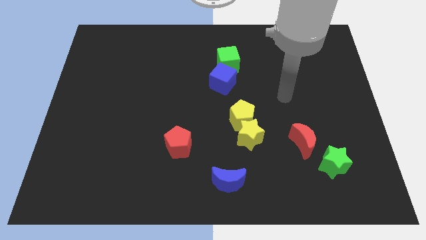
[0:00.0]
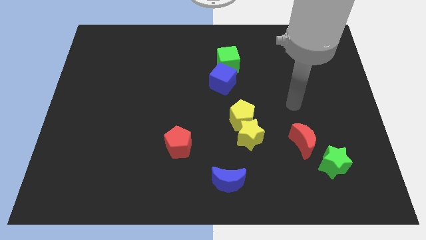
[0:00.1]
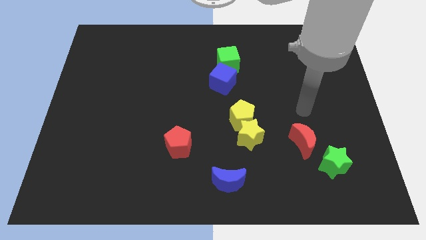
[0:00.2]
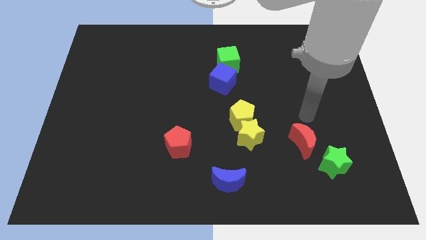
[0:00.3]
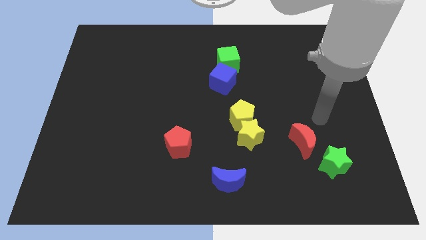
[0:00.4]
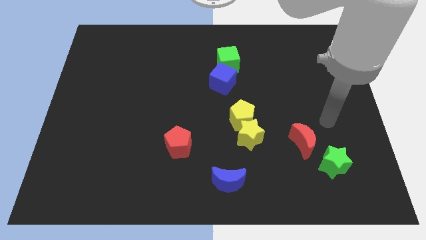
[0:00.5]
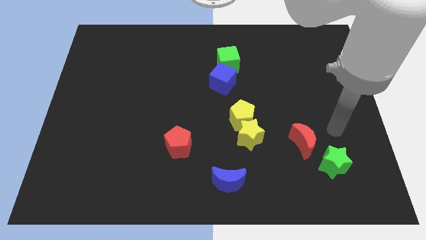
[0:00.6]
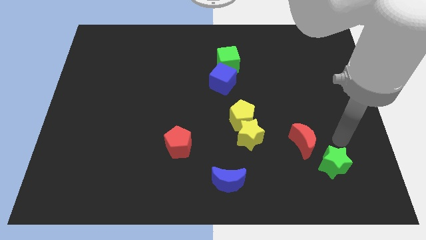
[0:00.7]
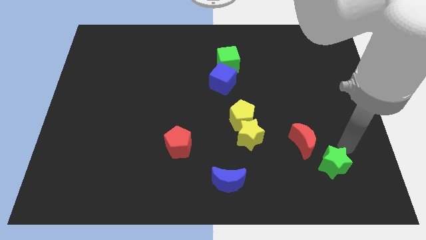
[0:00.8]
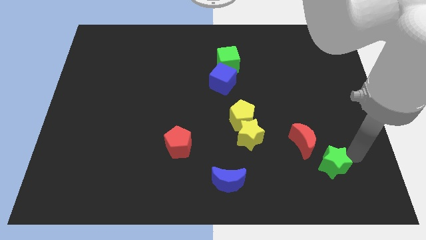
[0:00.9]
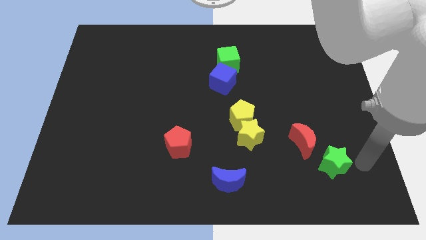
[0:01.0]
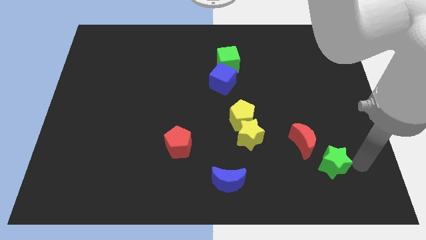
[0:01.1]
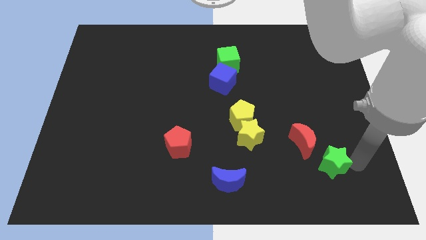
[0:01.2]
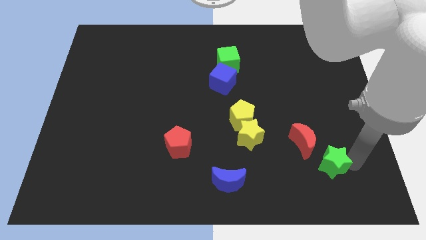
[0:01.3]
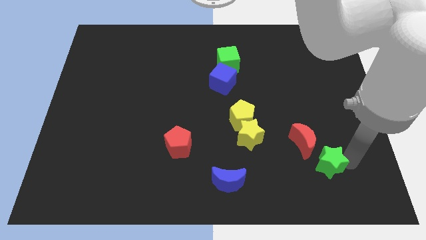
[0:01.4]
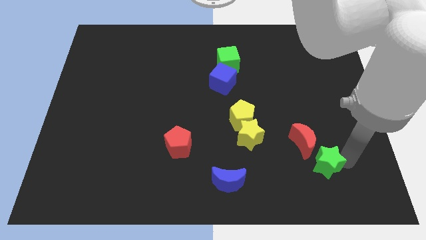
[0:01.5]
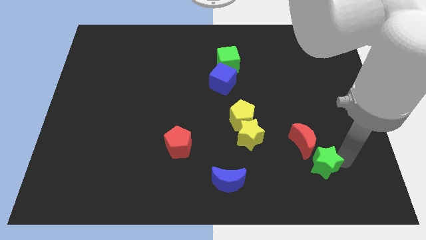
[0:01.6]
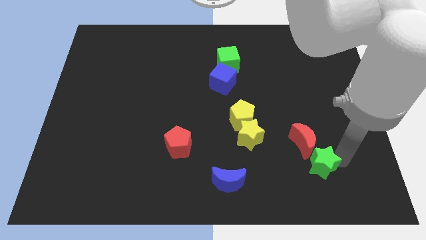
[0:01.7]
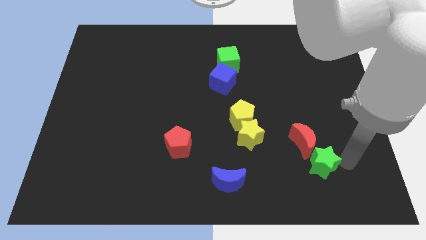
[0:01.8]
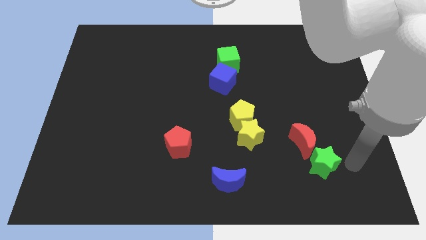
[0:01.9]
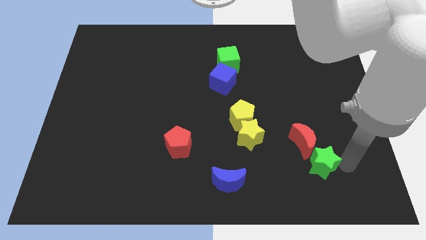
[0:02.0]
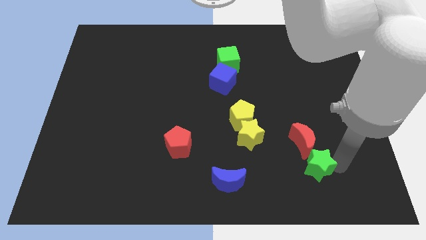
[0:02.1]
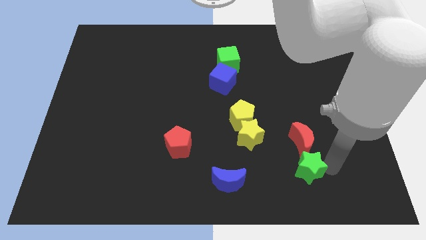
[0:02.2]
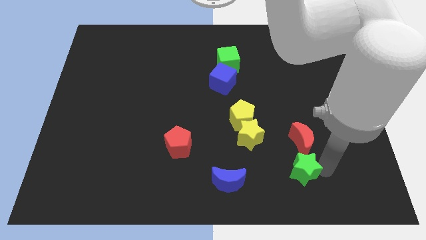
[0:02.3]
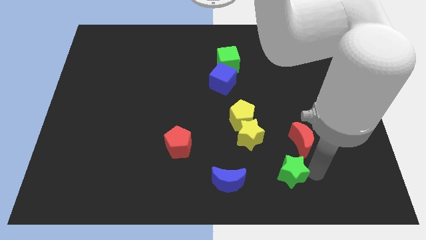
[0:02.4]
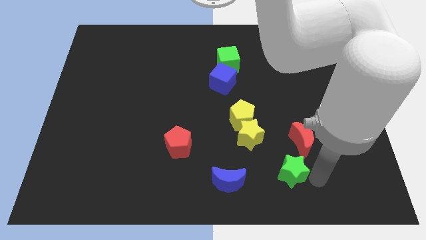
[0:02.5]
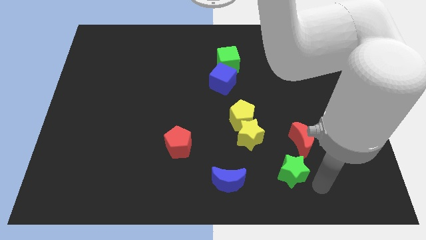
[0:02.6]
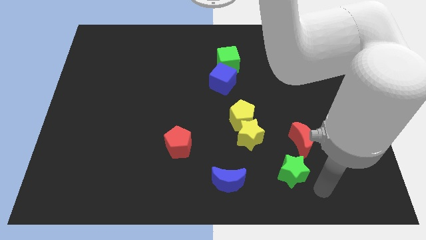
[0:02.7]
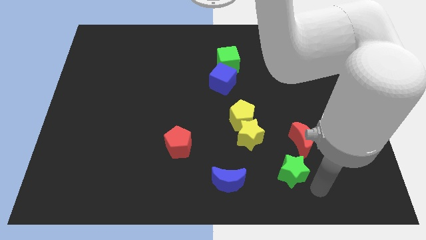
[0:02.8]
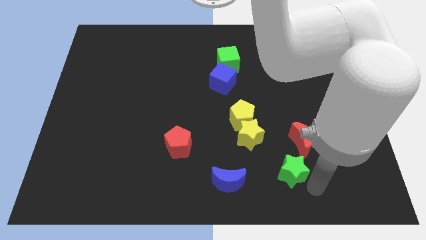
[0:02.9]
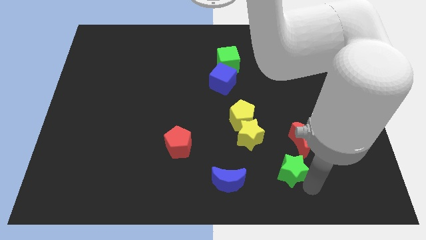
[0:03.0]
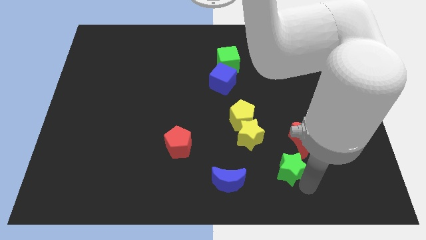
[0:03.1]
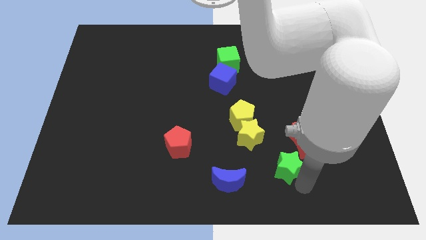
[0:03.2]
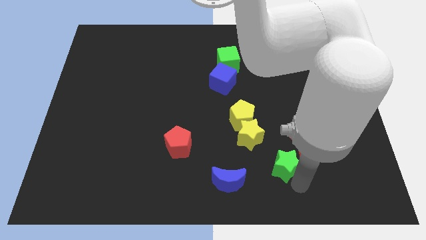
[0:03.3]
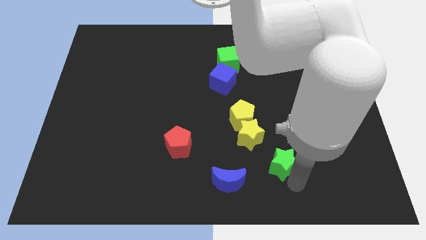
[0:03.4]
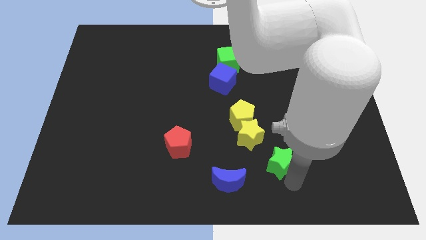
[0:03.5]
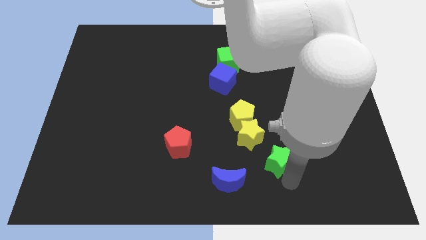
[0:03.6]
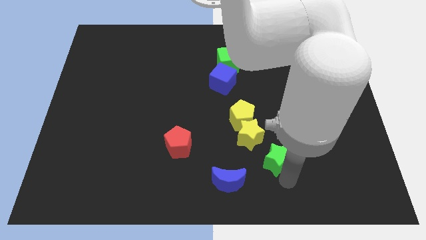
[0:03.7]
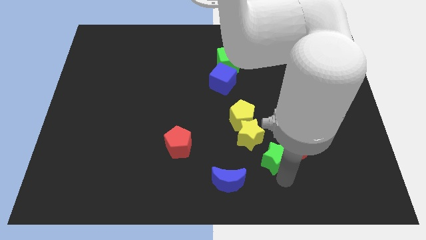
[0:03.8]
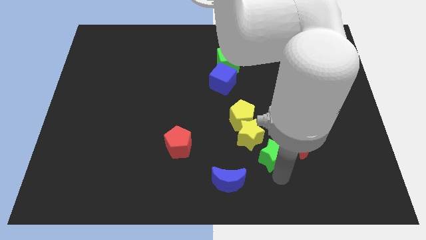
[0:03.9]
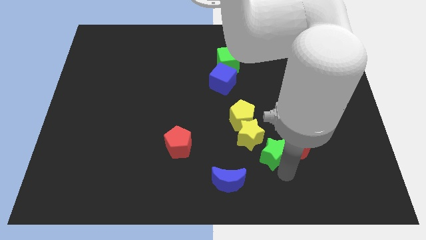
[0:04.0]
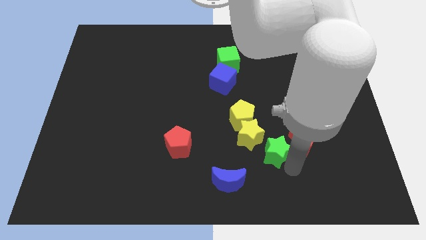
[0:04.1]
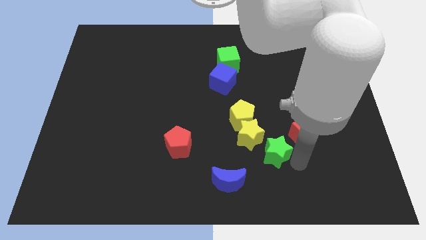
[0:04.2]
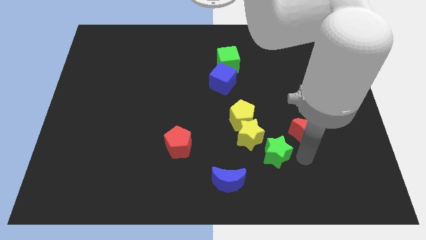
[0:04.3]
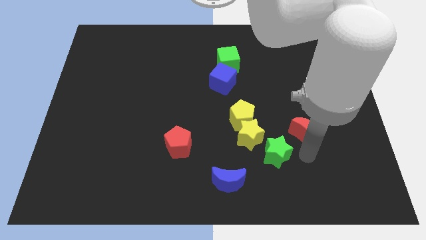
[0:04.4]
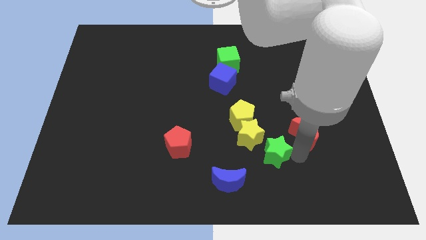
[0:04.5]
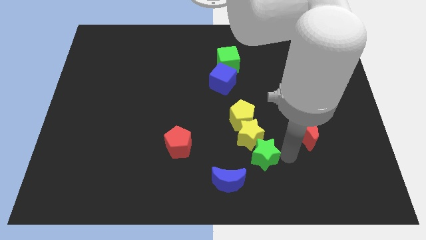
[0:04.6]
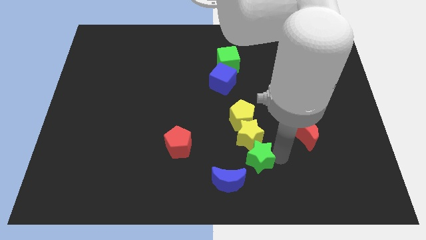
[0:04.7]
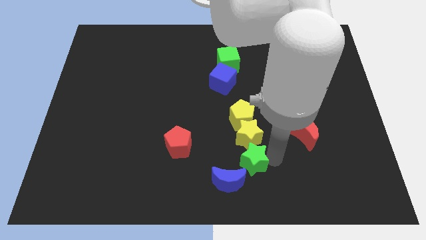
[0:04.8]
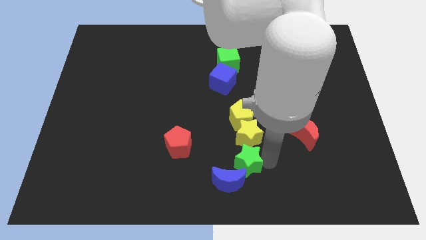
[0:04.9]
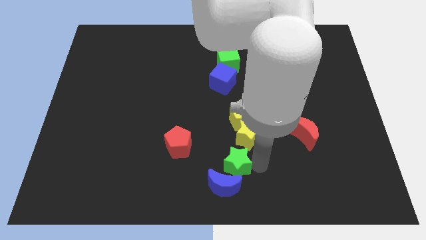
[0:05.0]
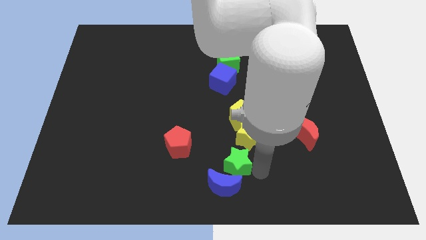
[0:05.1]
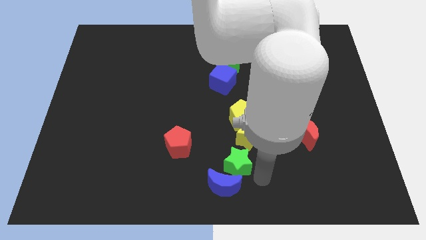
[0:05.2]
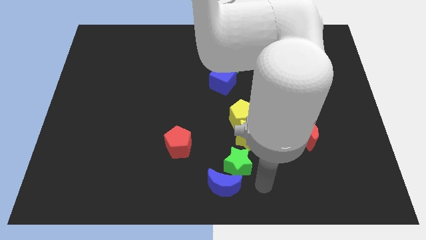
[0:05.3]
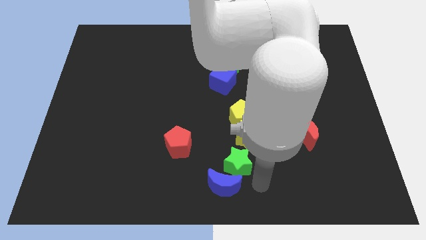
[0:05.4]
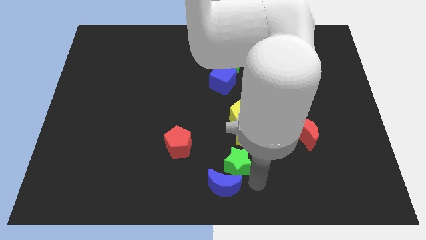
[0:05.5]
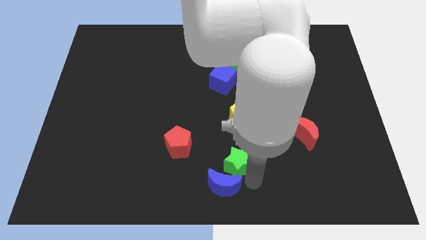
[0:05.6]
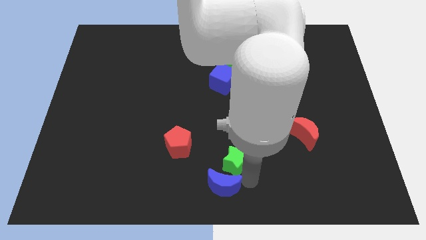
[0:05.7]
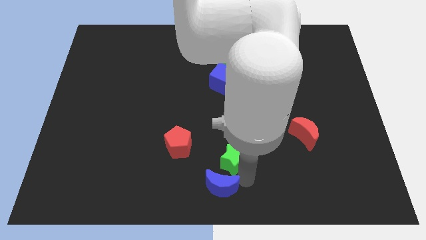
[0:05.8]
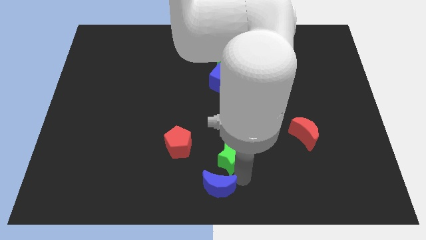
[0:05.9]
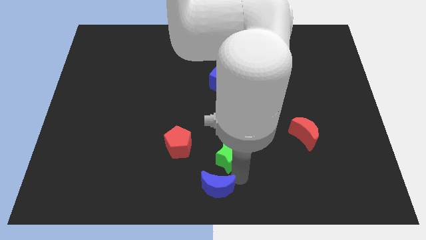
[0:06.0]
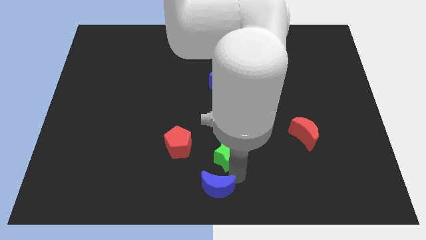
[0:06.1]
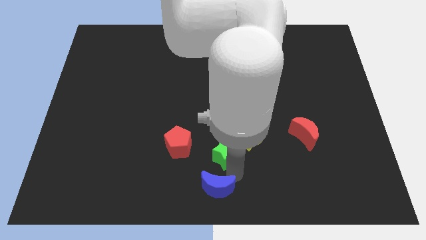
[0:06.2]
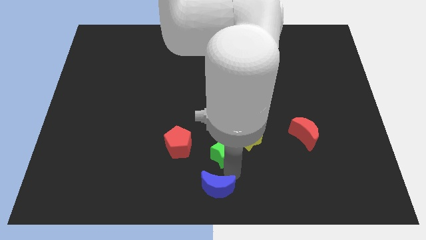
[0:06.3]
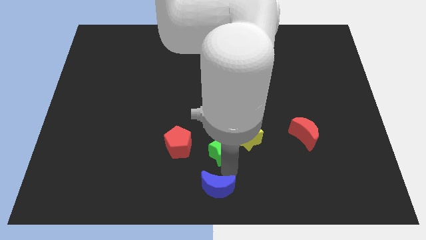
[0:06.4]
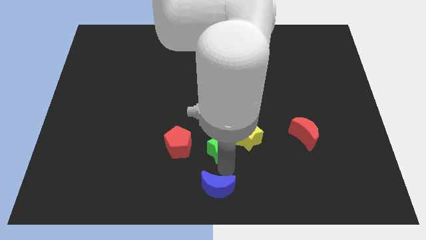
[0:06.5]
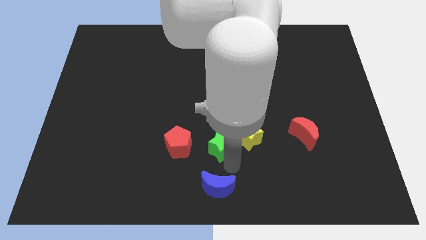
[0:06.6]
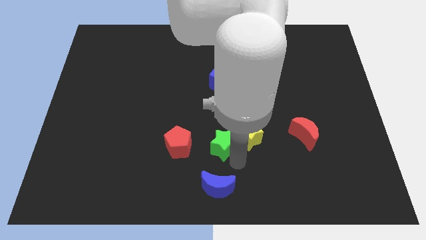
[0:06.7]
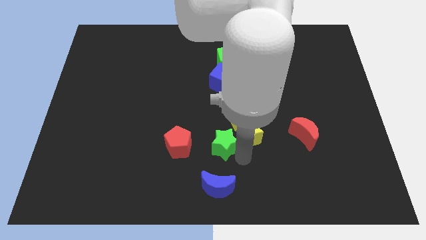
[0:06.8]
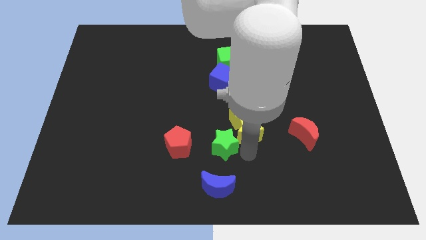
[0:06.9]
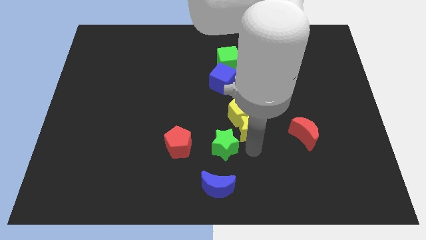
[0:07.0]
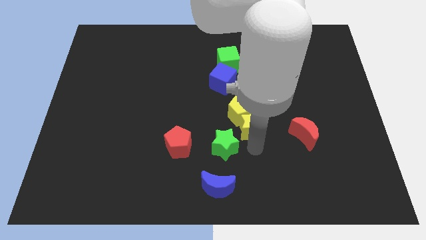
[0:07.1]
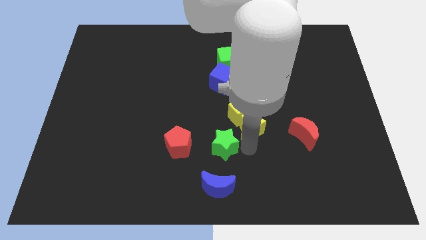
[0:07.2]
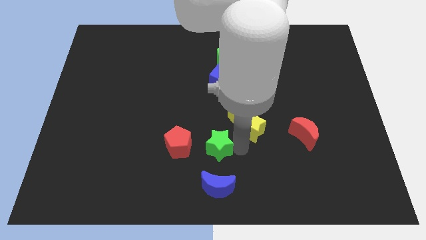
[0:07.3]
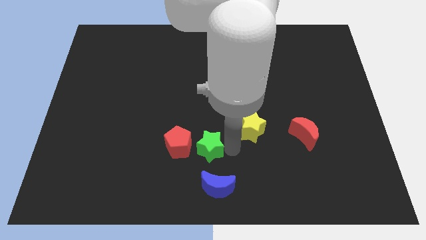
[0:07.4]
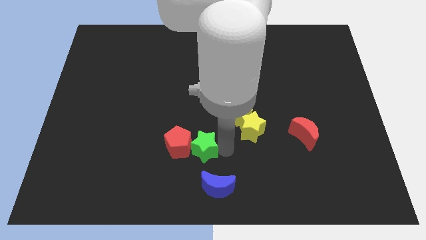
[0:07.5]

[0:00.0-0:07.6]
slide the green star towards the red pentagon
